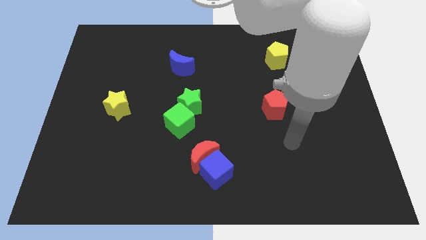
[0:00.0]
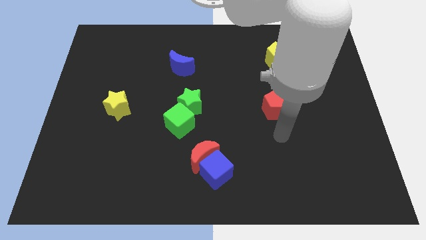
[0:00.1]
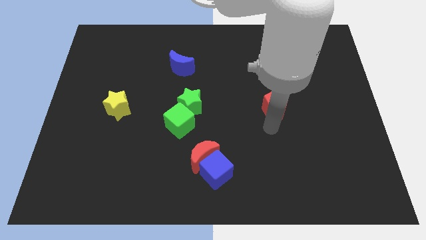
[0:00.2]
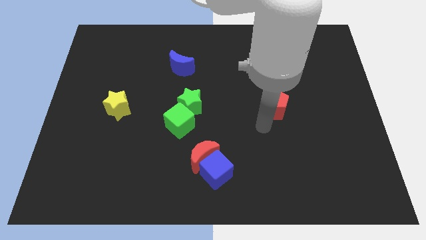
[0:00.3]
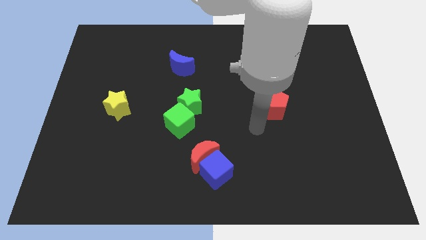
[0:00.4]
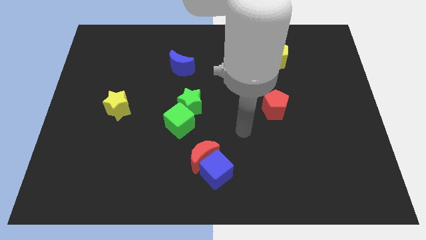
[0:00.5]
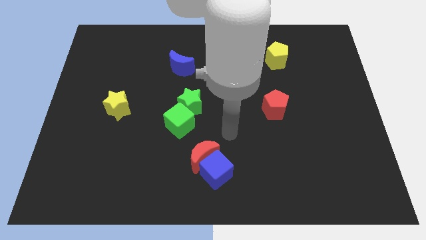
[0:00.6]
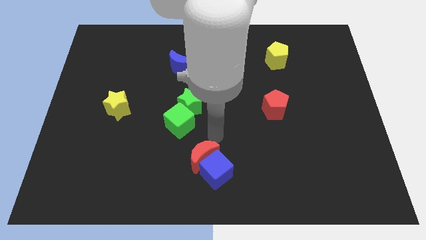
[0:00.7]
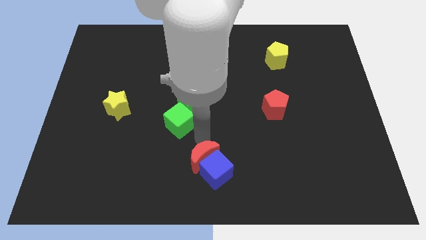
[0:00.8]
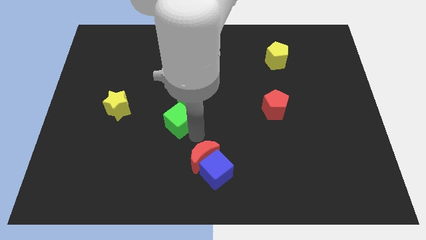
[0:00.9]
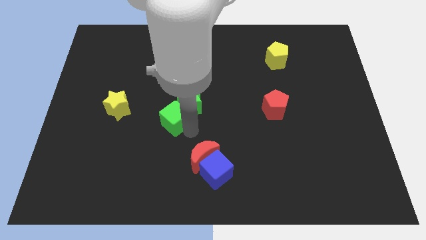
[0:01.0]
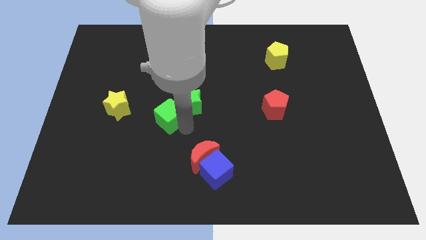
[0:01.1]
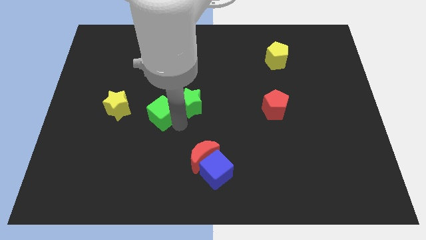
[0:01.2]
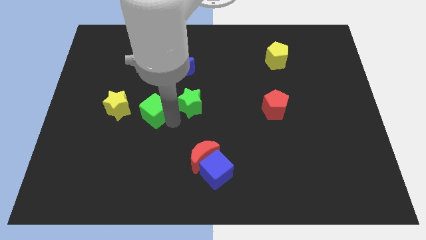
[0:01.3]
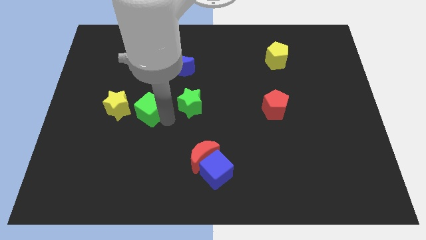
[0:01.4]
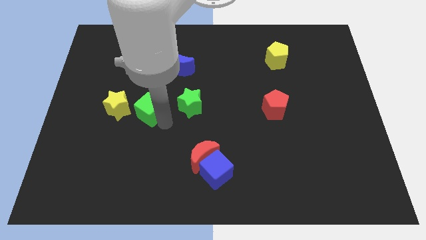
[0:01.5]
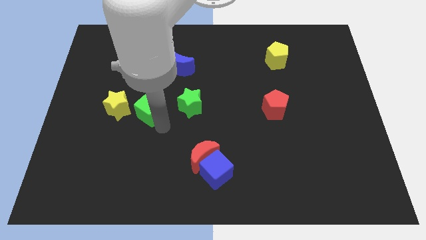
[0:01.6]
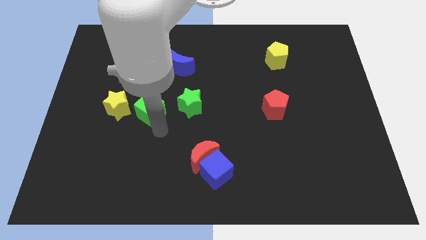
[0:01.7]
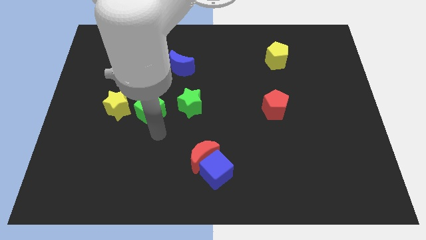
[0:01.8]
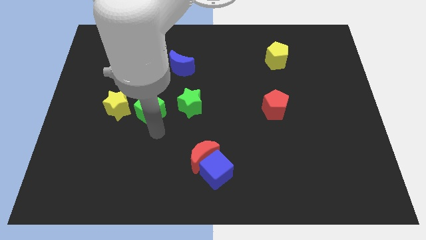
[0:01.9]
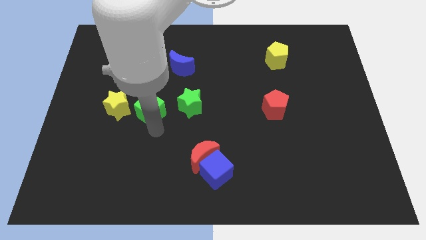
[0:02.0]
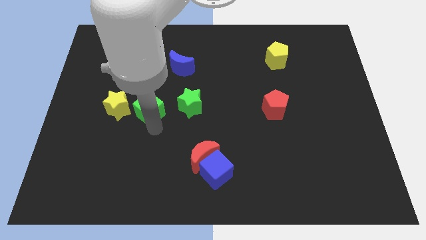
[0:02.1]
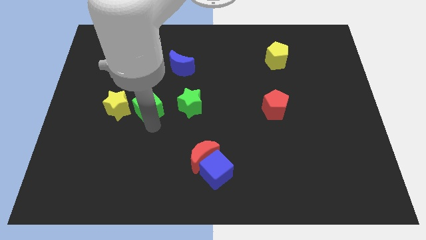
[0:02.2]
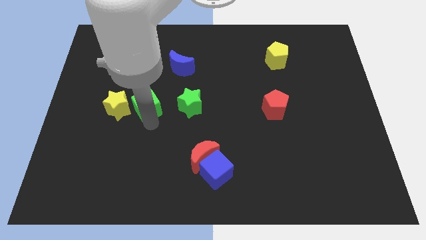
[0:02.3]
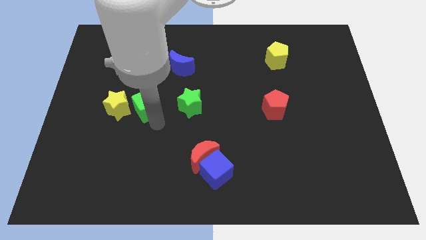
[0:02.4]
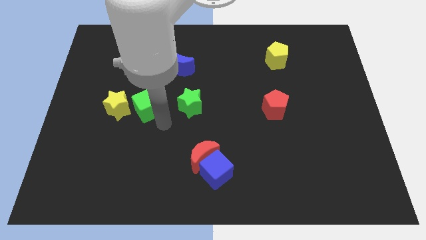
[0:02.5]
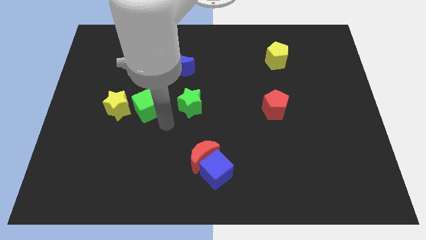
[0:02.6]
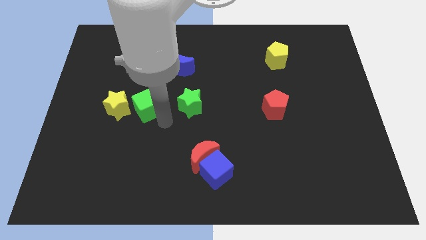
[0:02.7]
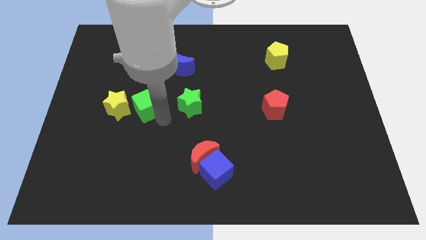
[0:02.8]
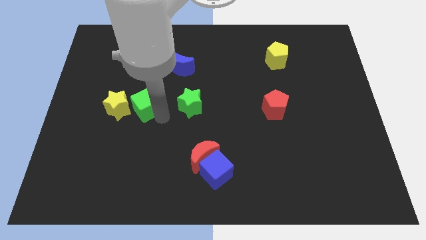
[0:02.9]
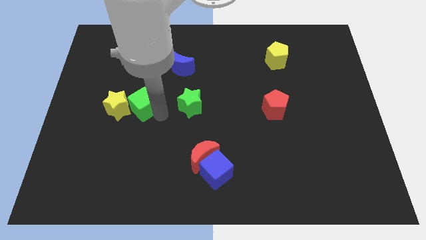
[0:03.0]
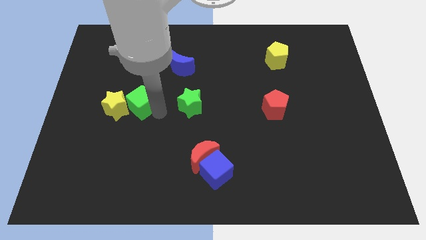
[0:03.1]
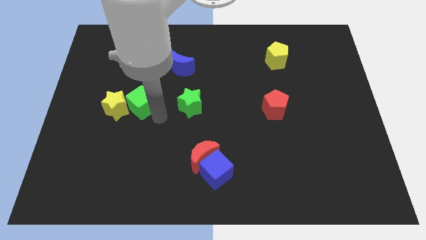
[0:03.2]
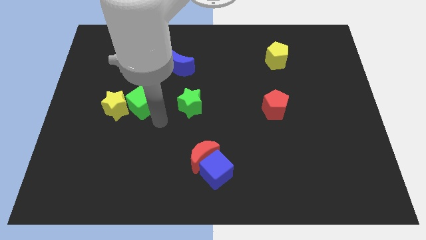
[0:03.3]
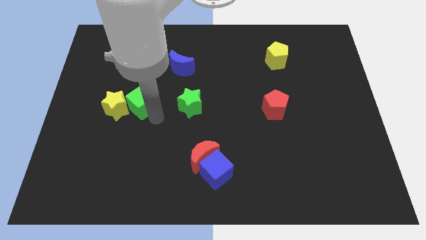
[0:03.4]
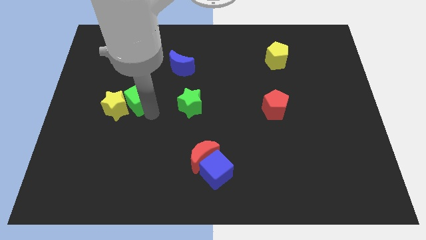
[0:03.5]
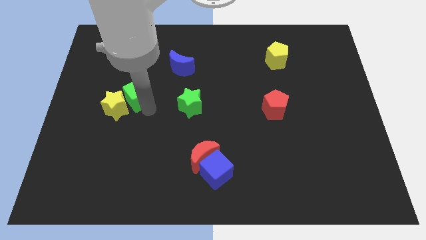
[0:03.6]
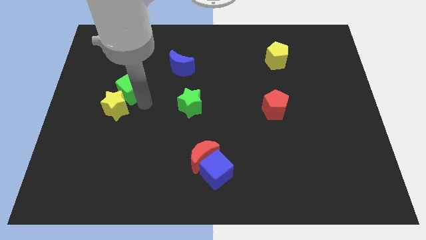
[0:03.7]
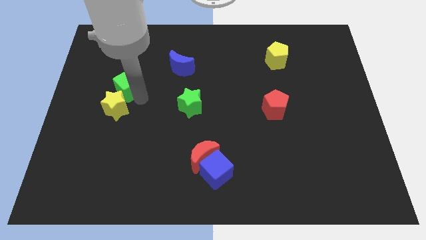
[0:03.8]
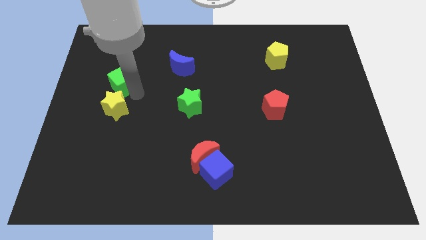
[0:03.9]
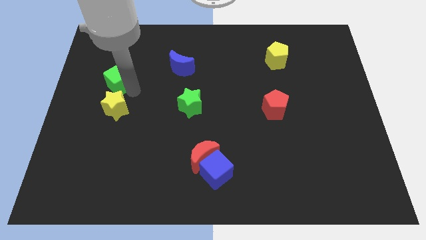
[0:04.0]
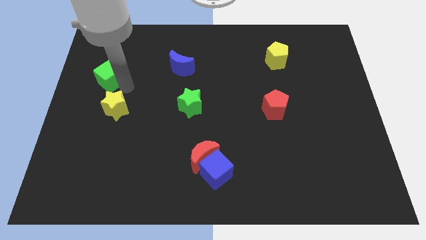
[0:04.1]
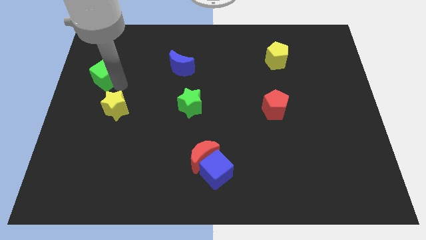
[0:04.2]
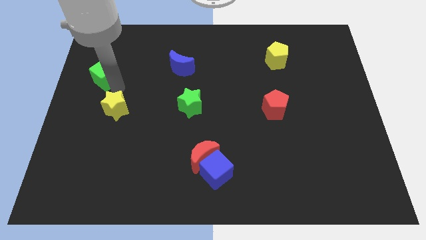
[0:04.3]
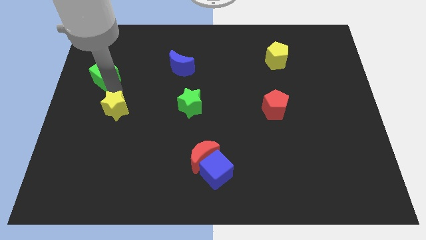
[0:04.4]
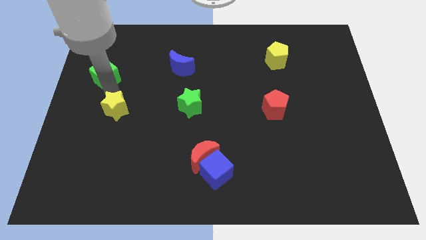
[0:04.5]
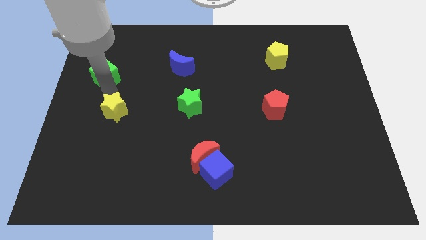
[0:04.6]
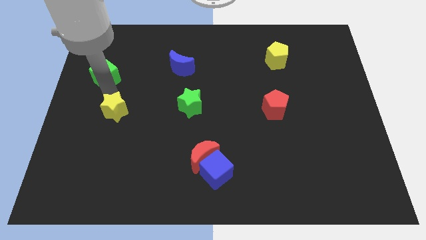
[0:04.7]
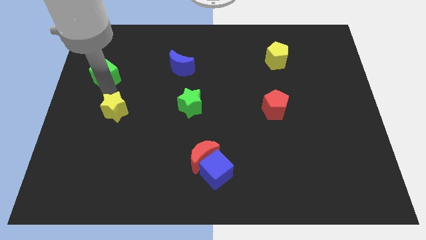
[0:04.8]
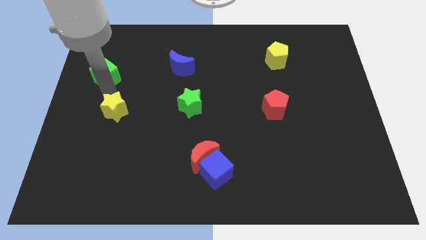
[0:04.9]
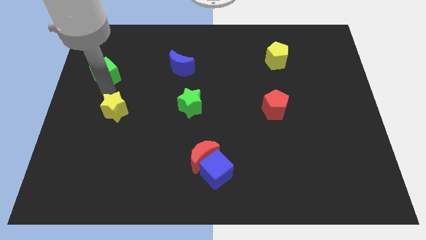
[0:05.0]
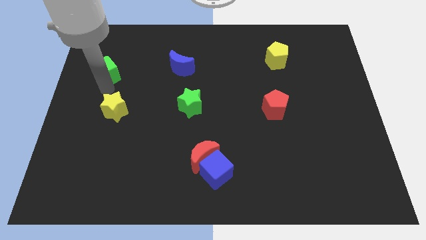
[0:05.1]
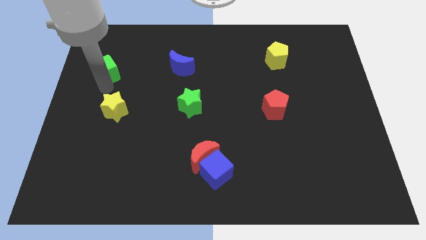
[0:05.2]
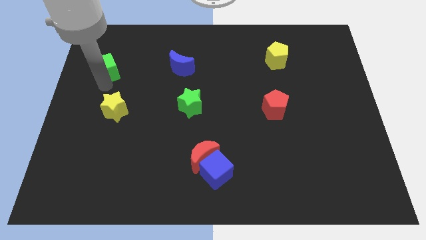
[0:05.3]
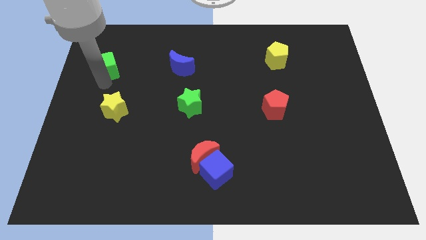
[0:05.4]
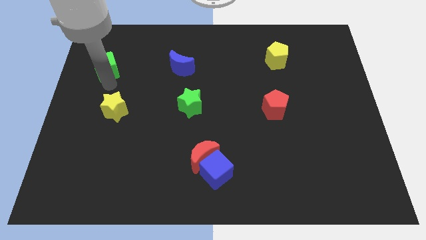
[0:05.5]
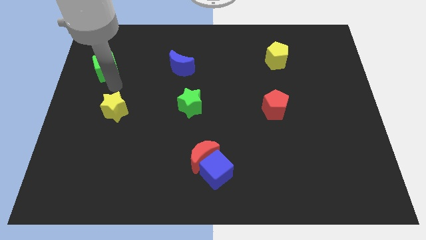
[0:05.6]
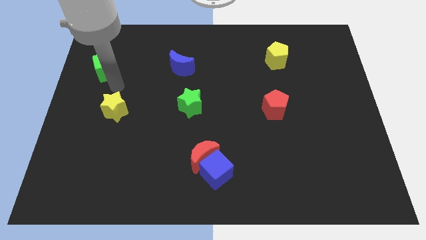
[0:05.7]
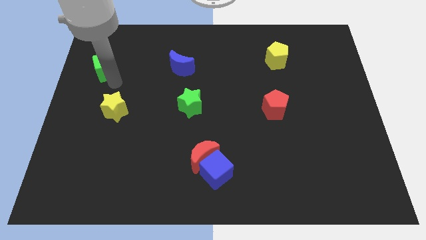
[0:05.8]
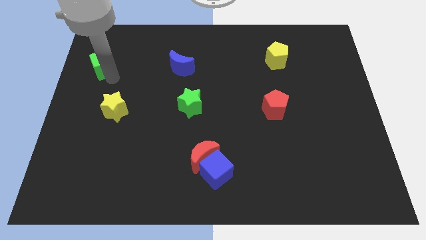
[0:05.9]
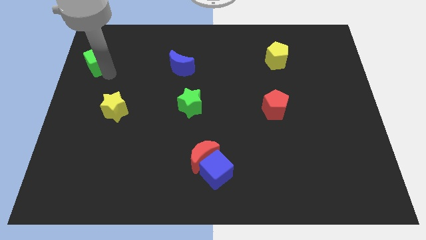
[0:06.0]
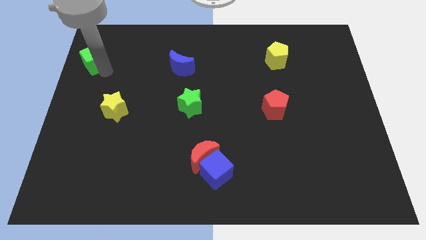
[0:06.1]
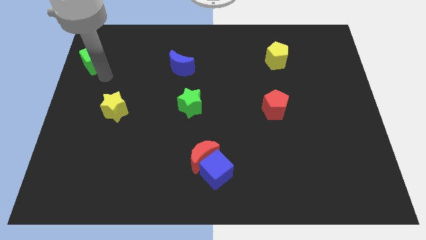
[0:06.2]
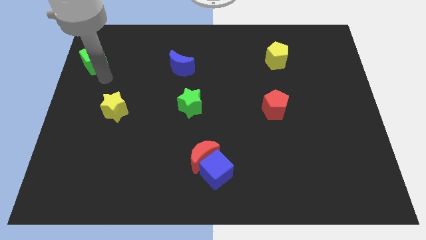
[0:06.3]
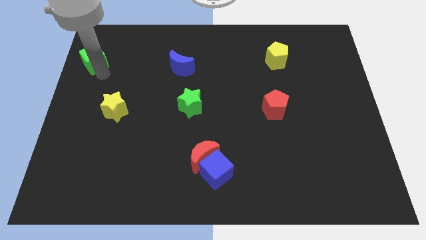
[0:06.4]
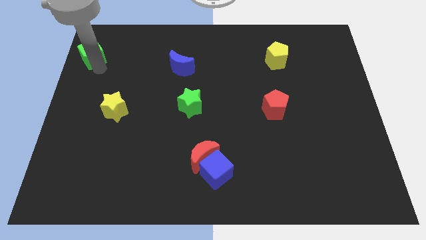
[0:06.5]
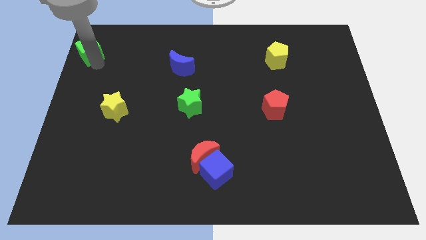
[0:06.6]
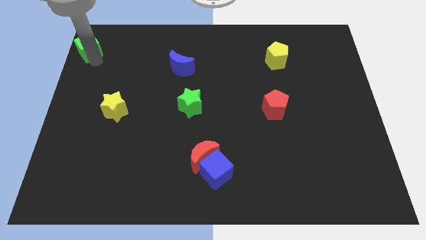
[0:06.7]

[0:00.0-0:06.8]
move the green cube to the upper left corner
